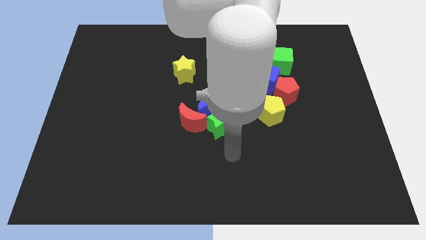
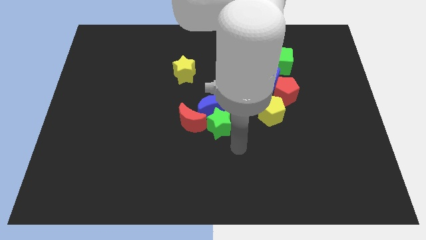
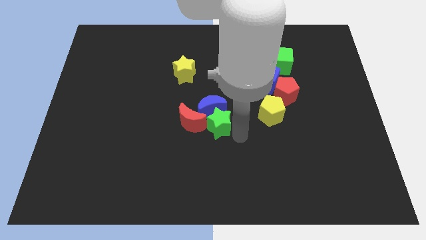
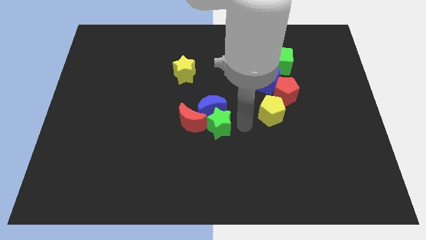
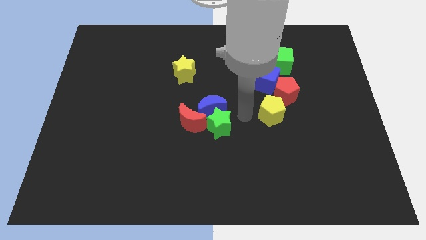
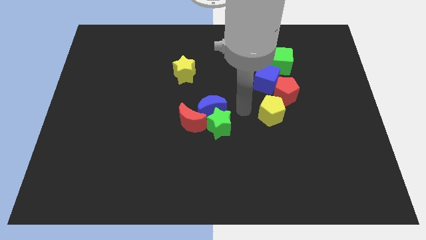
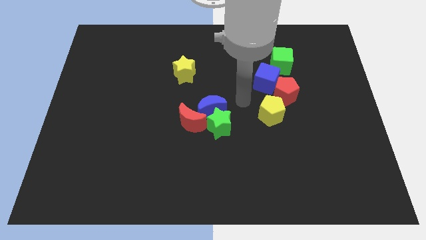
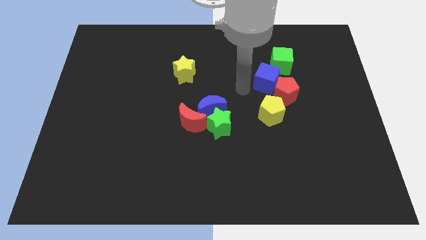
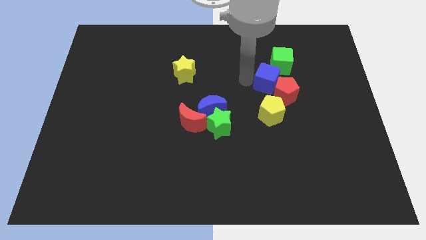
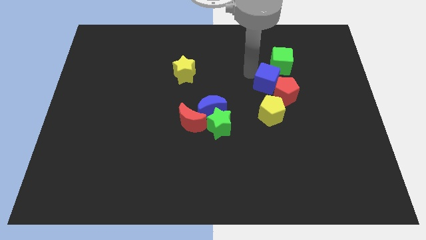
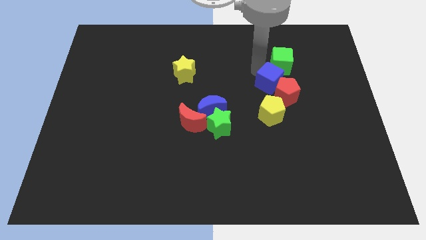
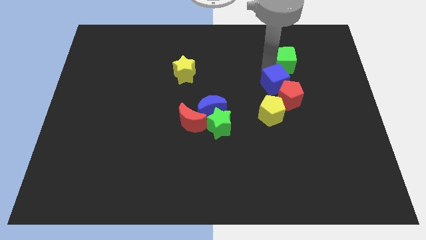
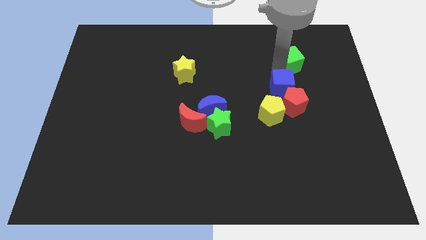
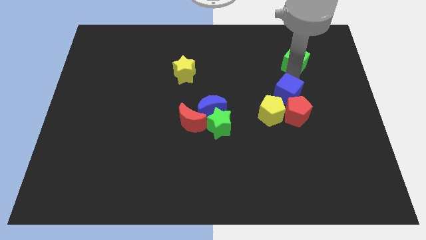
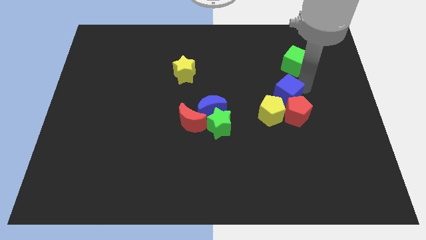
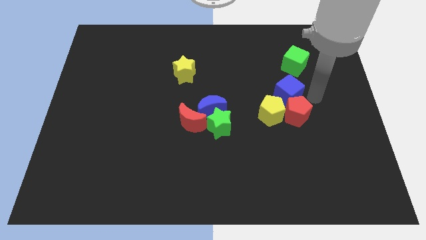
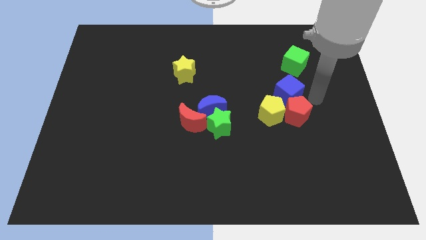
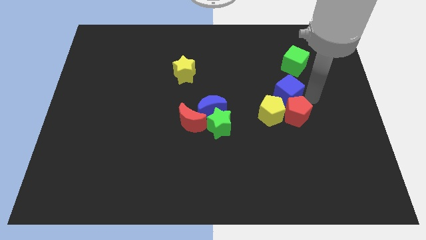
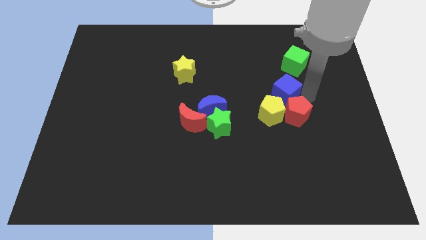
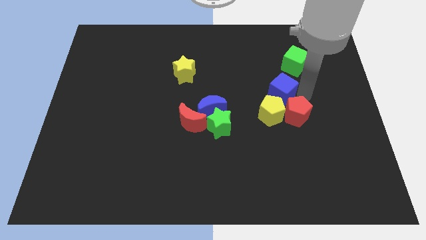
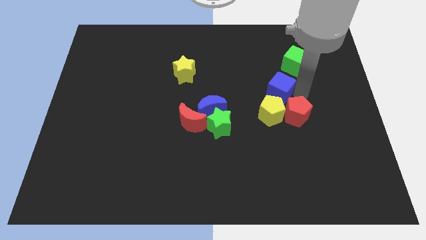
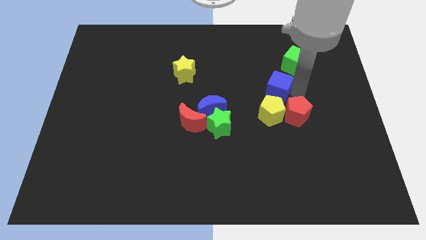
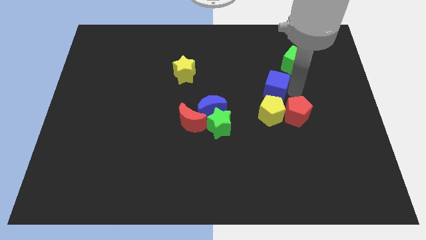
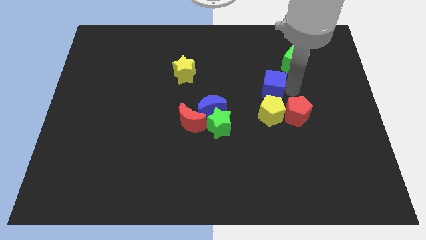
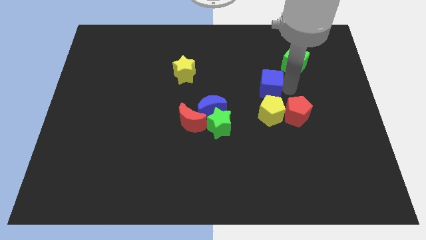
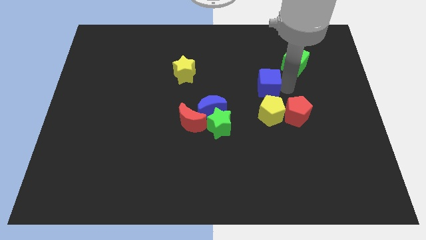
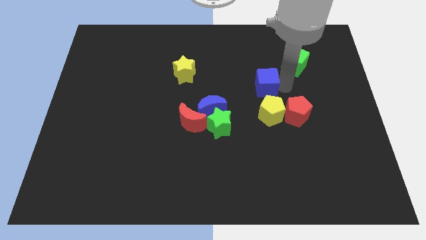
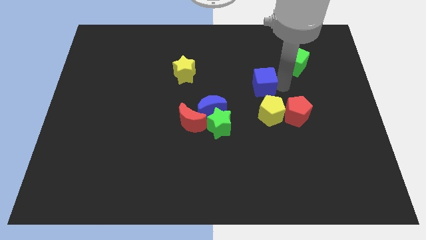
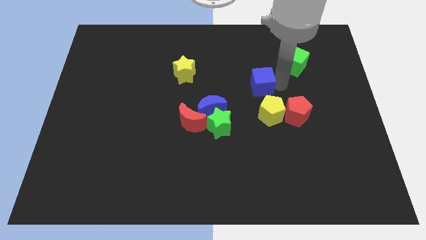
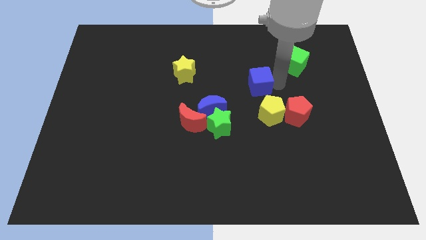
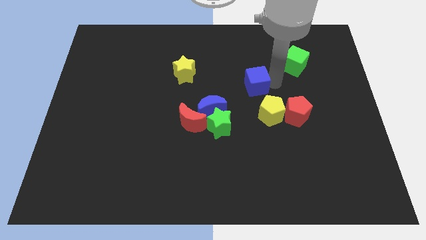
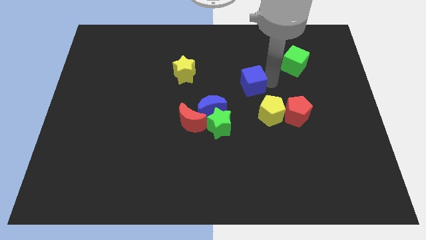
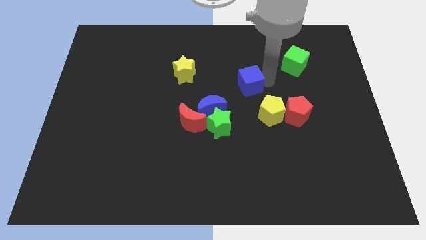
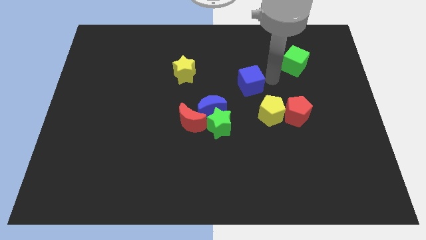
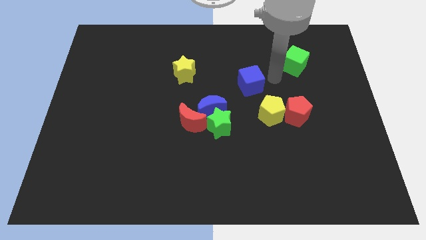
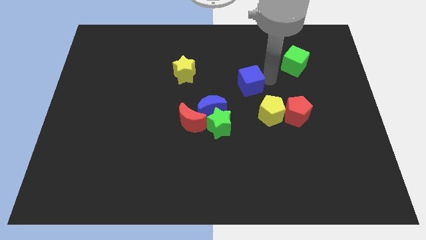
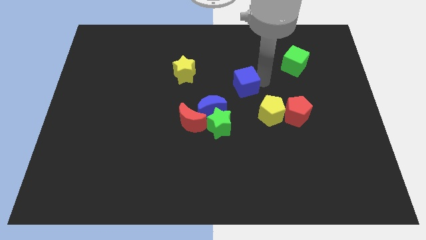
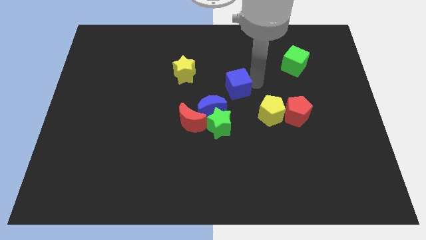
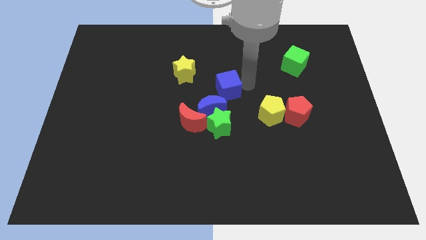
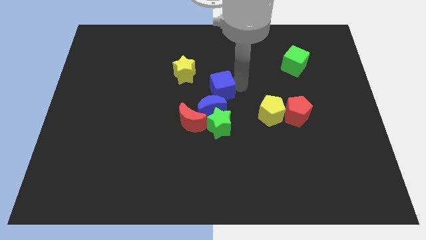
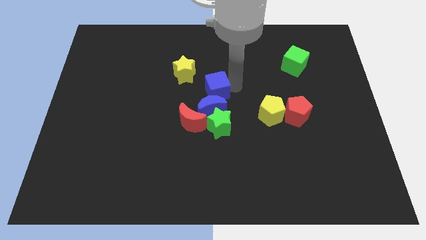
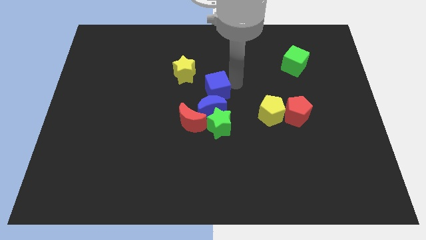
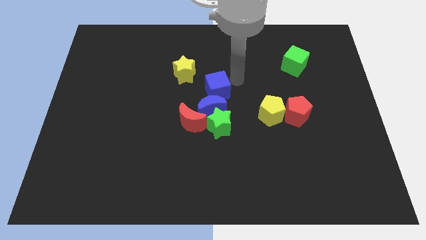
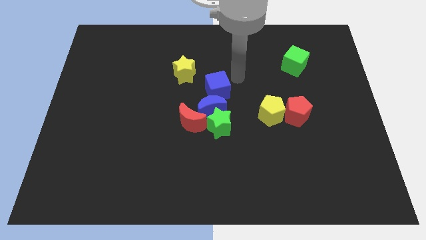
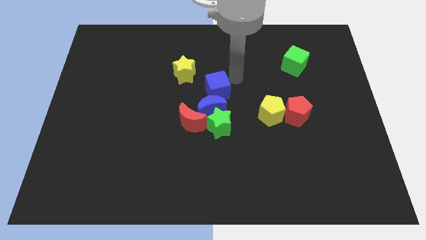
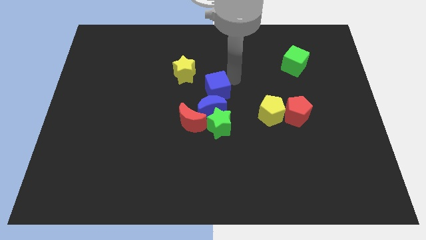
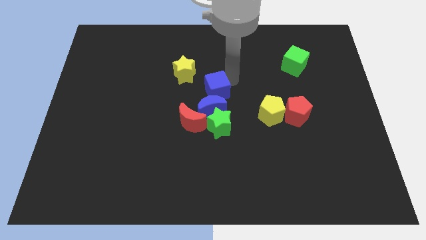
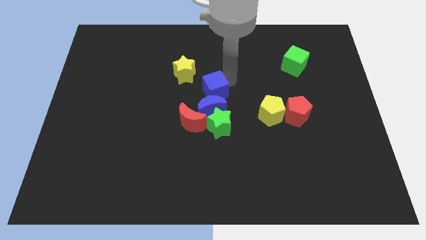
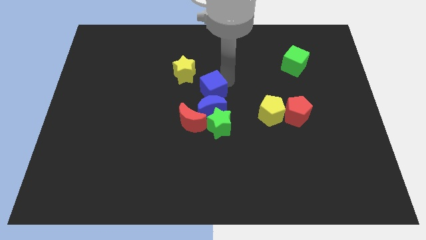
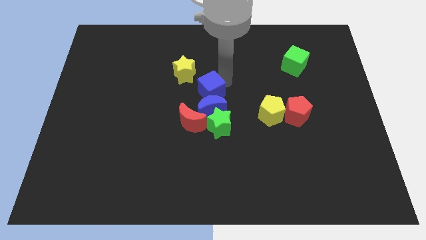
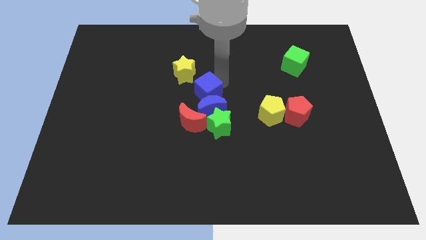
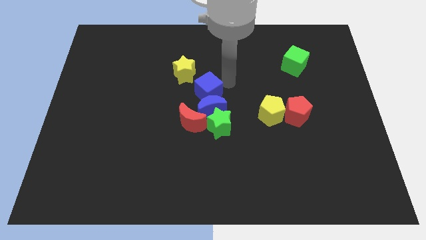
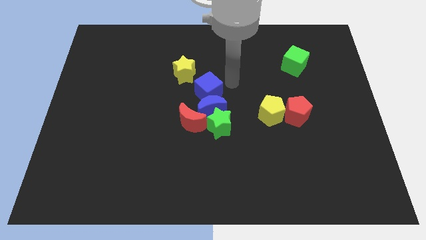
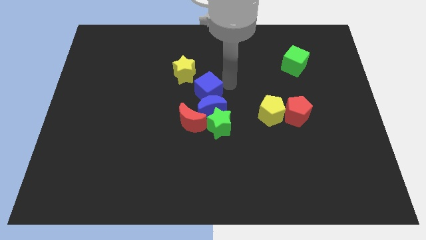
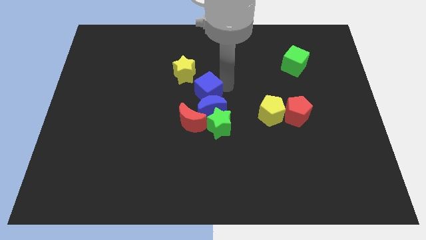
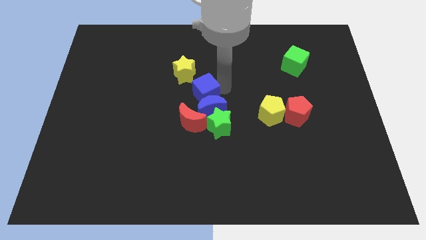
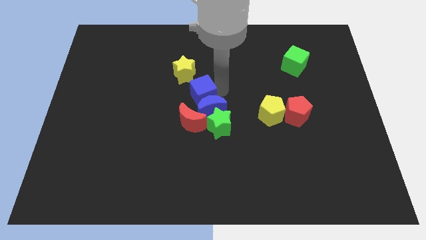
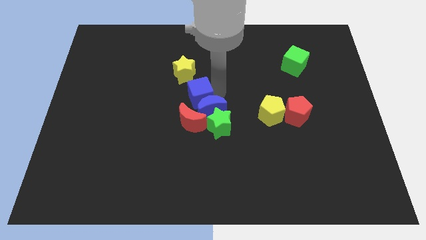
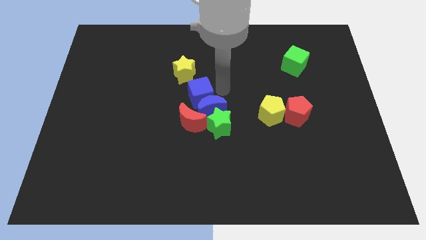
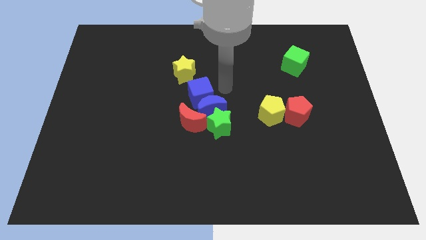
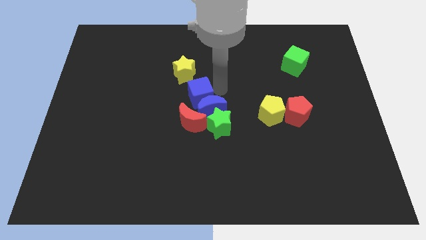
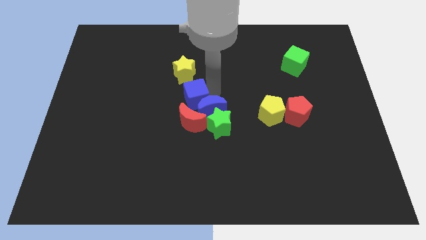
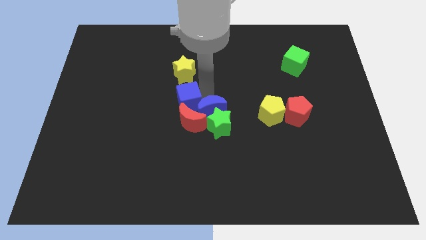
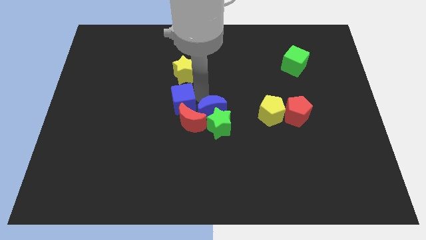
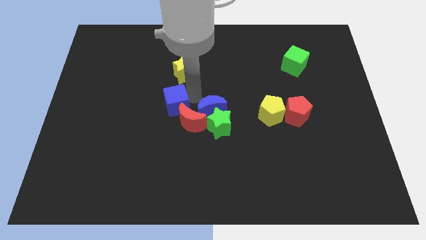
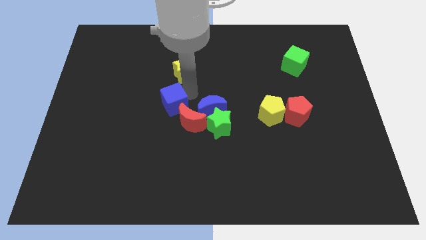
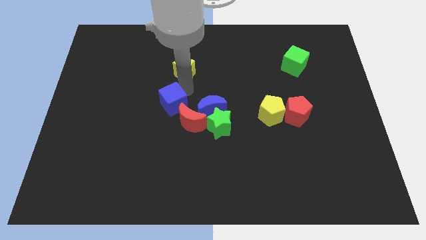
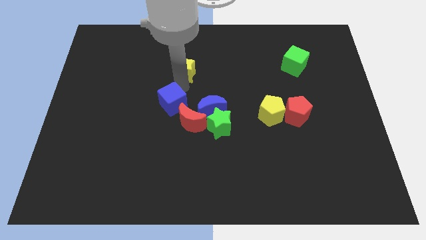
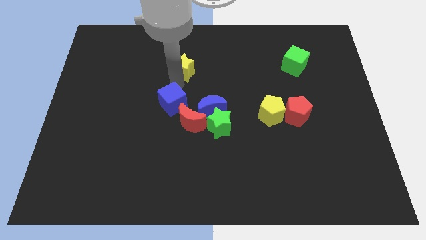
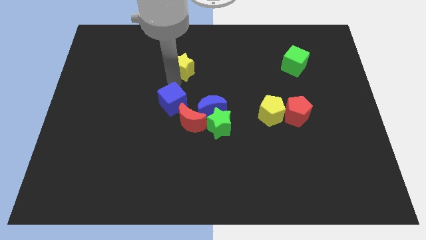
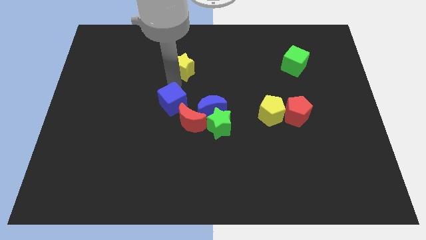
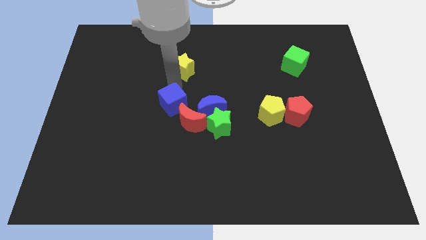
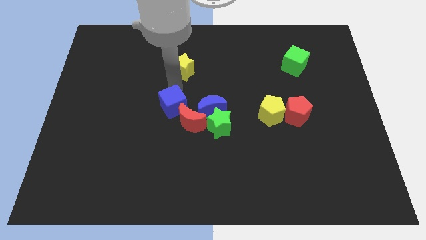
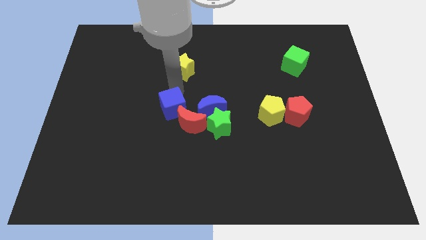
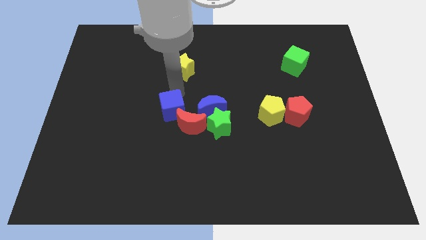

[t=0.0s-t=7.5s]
put the blue cube to the left side of the green star
